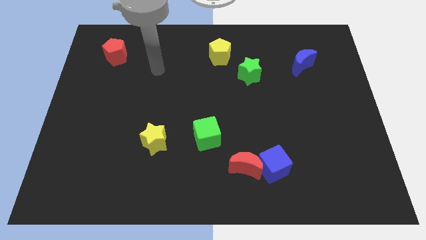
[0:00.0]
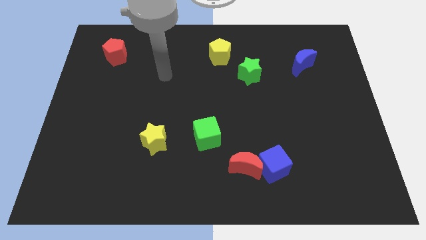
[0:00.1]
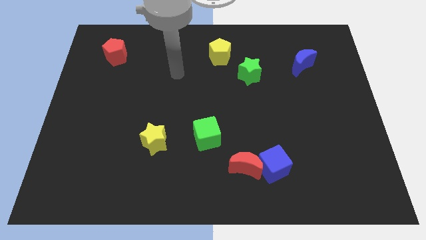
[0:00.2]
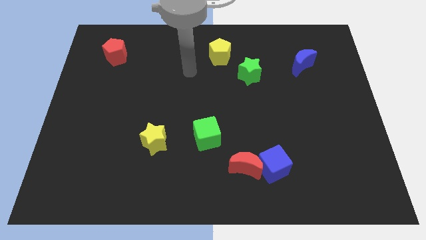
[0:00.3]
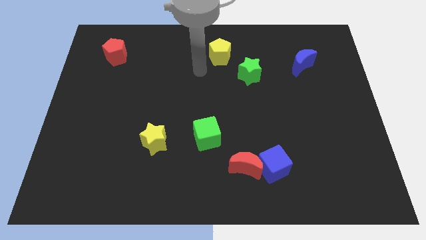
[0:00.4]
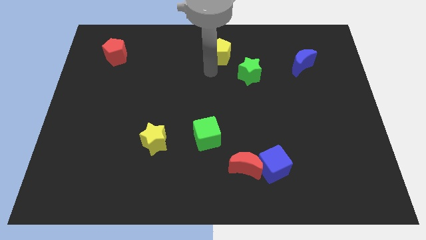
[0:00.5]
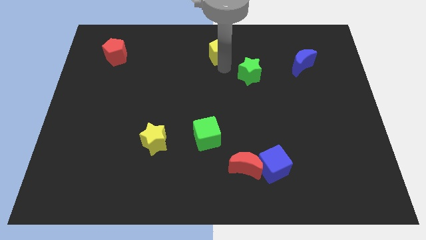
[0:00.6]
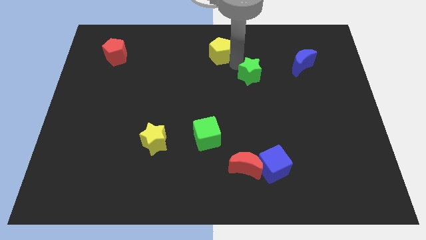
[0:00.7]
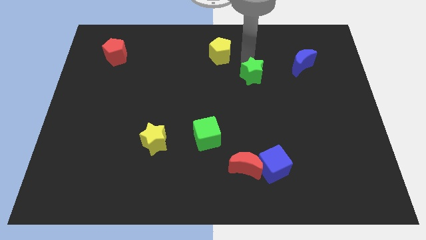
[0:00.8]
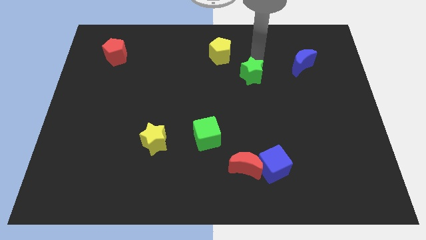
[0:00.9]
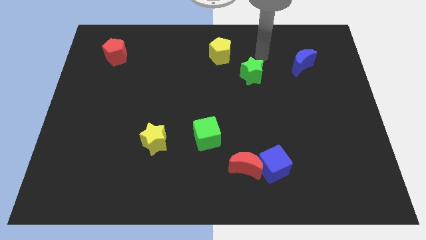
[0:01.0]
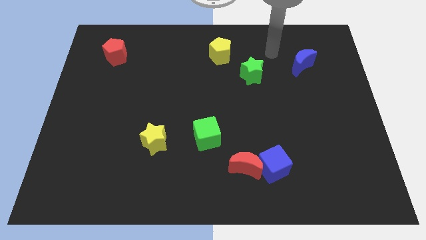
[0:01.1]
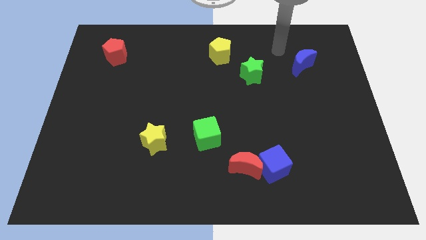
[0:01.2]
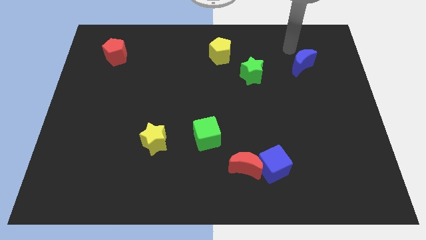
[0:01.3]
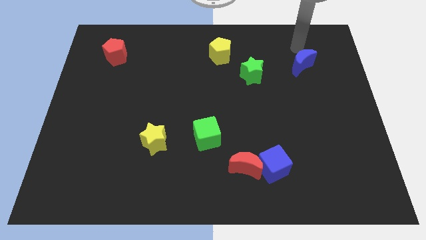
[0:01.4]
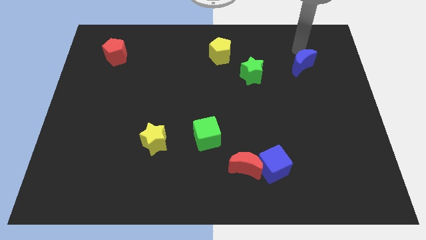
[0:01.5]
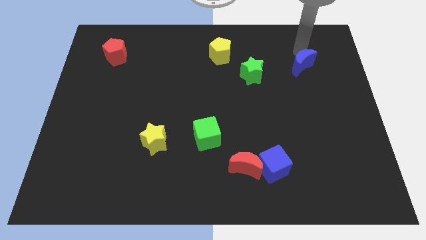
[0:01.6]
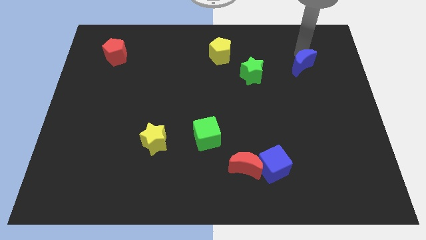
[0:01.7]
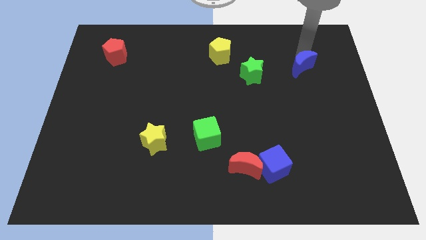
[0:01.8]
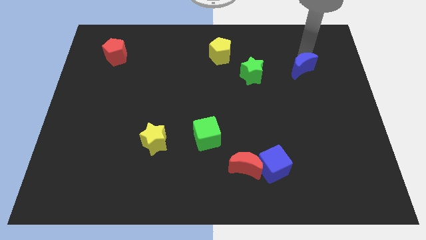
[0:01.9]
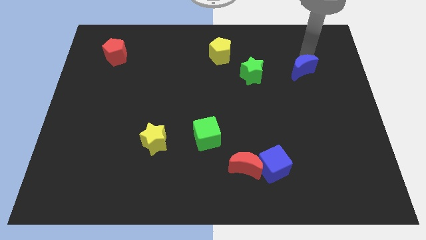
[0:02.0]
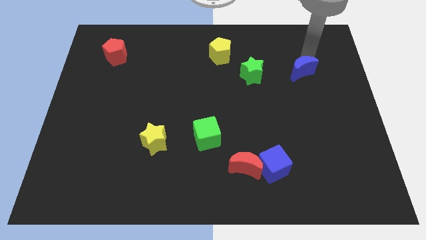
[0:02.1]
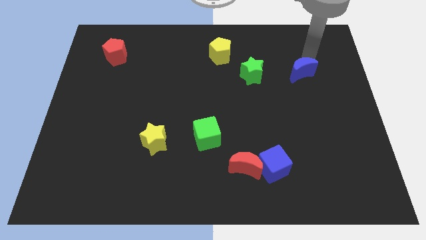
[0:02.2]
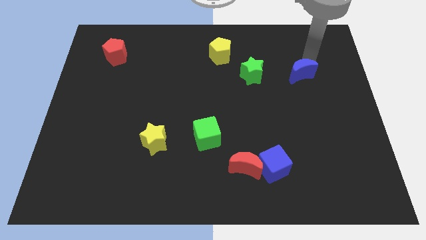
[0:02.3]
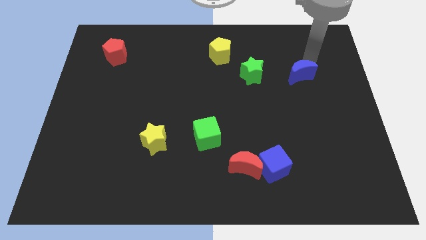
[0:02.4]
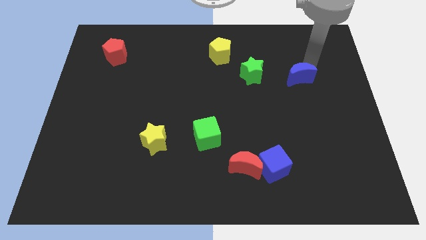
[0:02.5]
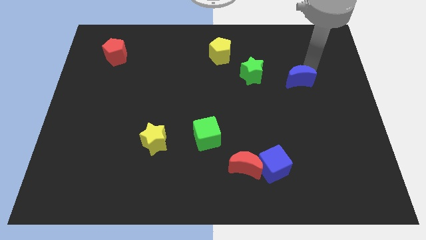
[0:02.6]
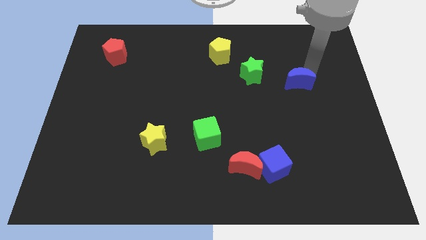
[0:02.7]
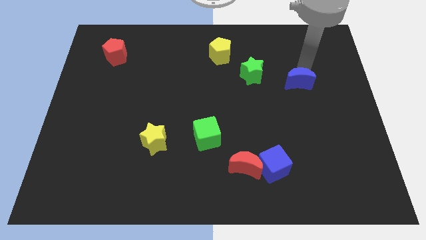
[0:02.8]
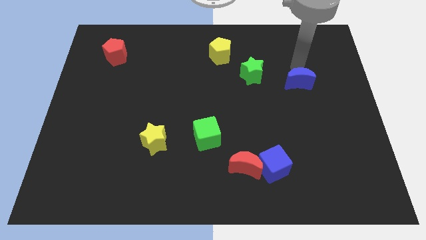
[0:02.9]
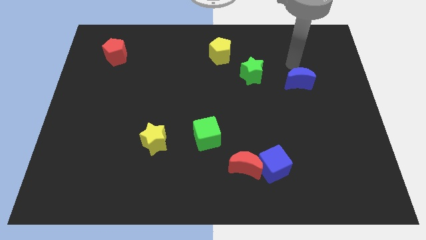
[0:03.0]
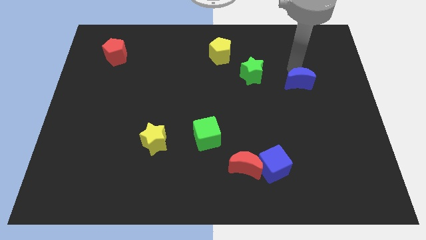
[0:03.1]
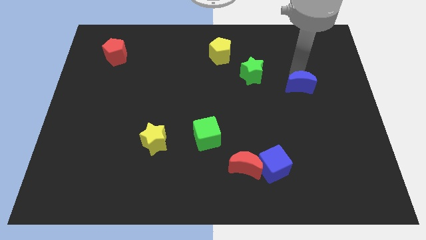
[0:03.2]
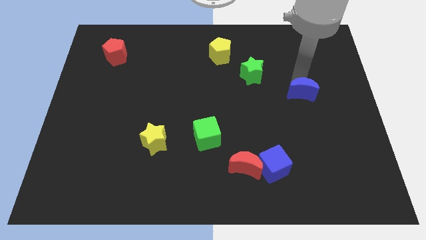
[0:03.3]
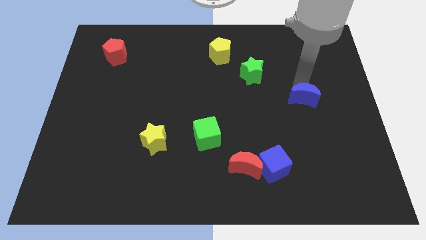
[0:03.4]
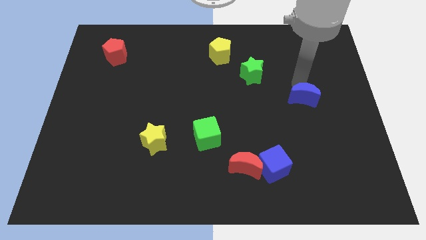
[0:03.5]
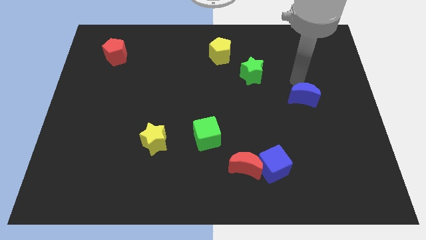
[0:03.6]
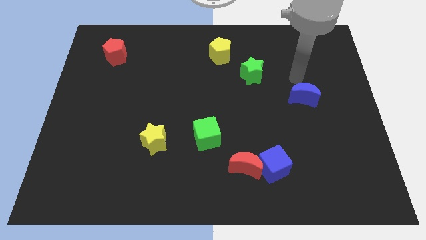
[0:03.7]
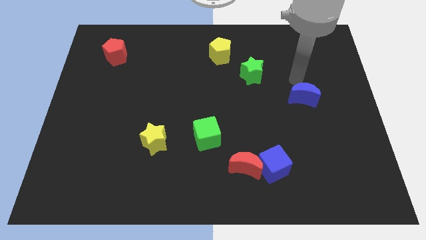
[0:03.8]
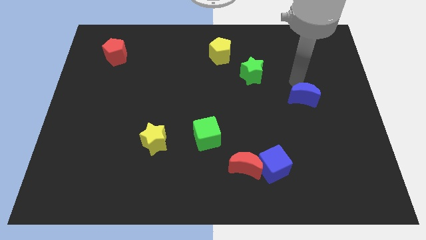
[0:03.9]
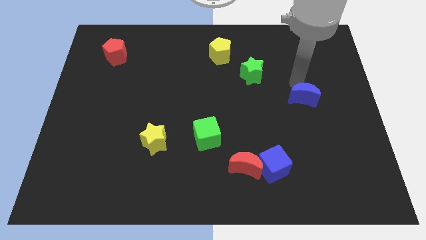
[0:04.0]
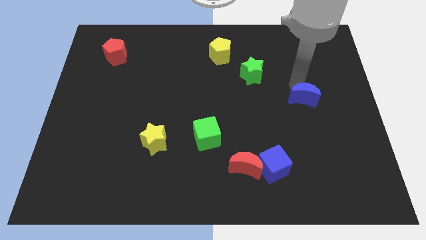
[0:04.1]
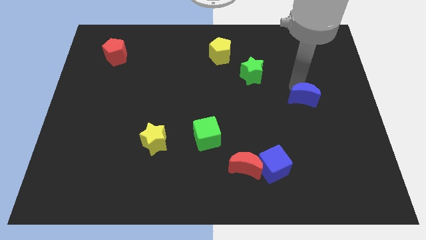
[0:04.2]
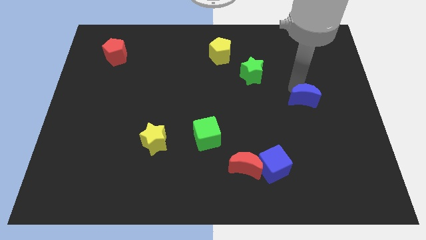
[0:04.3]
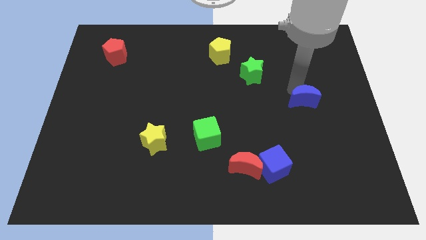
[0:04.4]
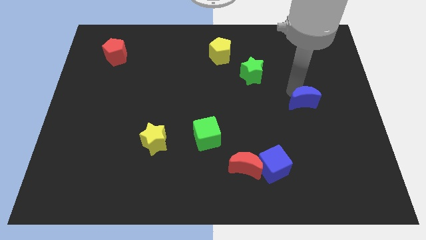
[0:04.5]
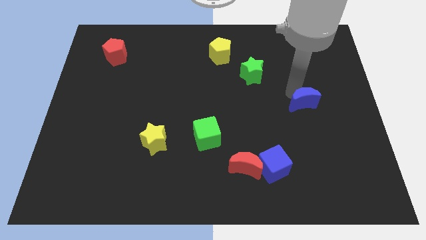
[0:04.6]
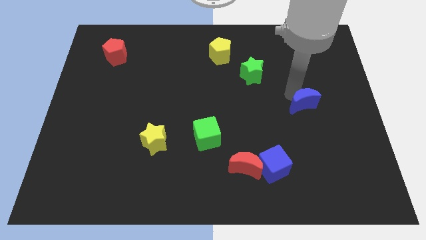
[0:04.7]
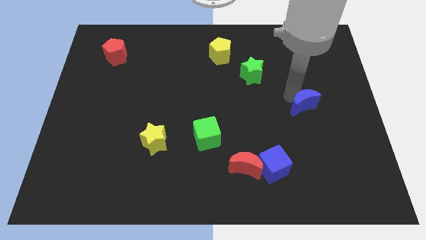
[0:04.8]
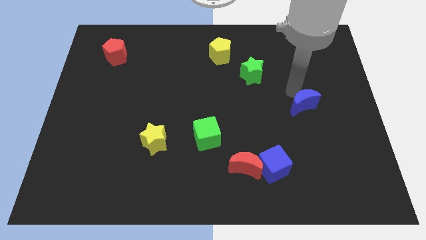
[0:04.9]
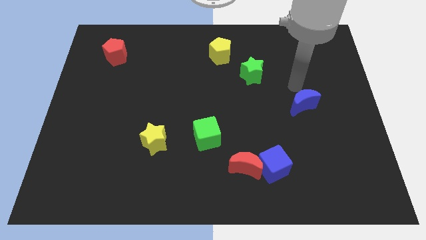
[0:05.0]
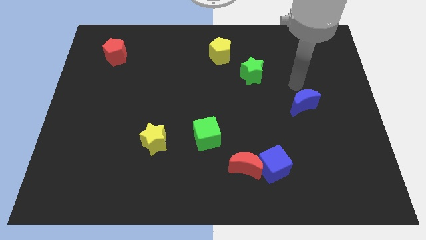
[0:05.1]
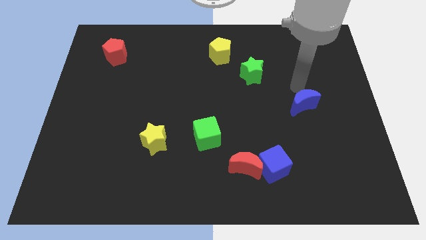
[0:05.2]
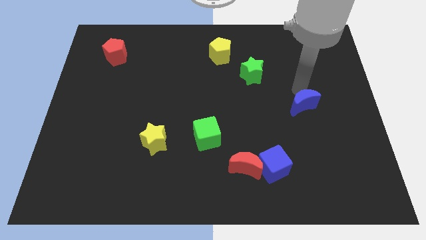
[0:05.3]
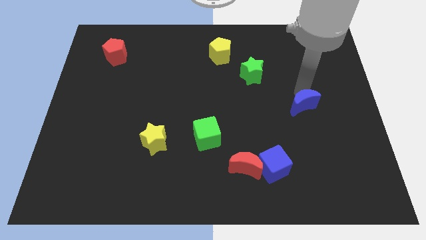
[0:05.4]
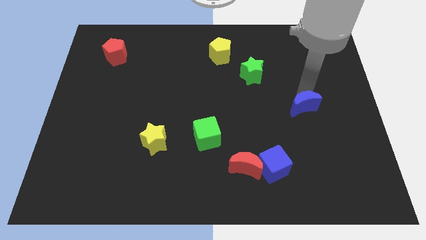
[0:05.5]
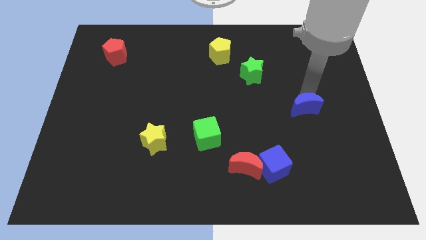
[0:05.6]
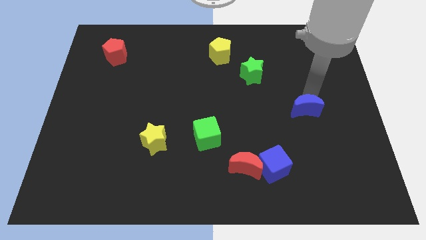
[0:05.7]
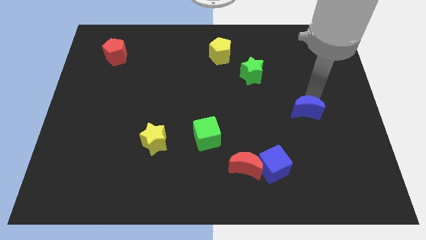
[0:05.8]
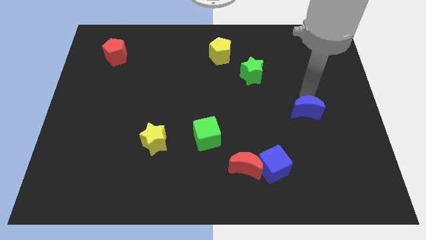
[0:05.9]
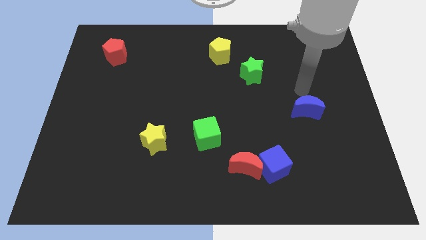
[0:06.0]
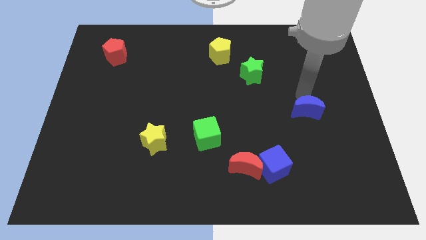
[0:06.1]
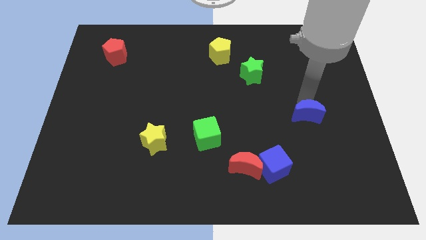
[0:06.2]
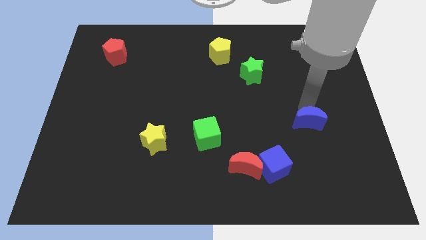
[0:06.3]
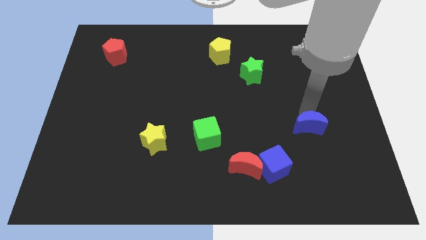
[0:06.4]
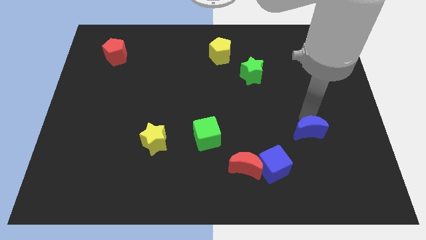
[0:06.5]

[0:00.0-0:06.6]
slide the blue moon downwards

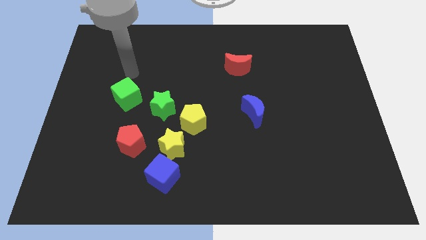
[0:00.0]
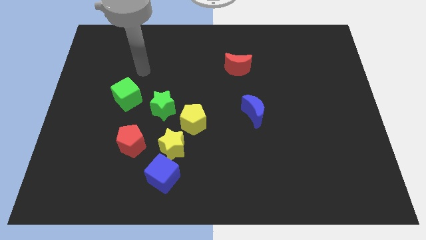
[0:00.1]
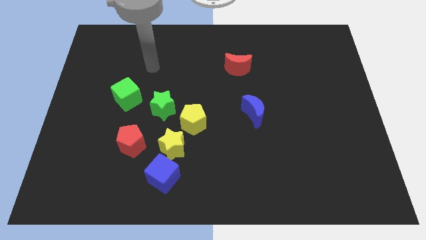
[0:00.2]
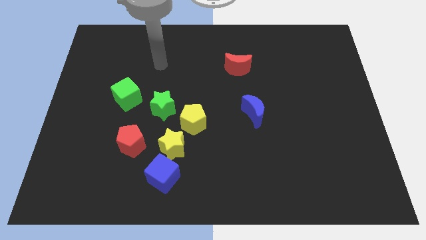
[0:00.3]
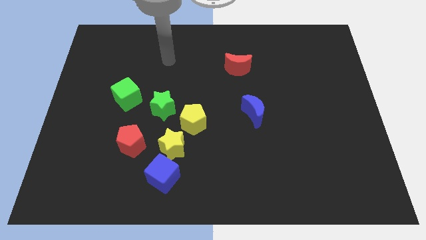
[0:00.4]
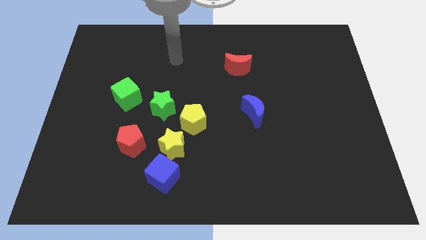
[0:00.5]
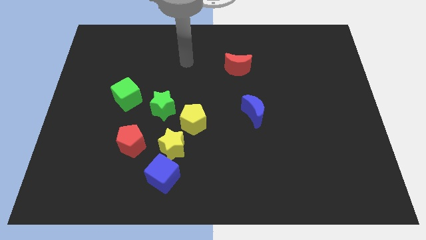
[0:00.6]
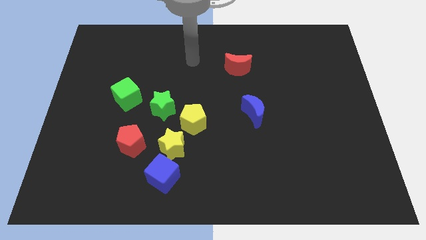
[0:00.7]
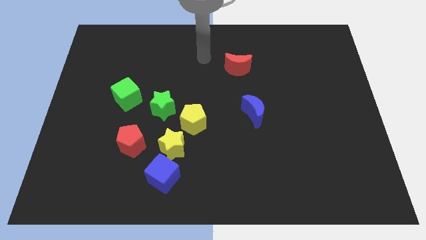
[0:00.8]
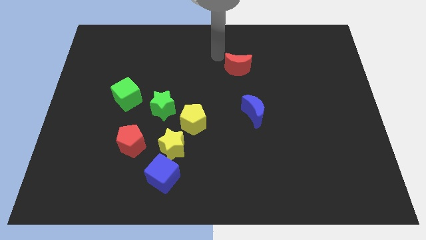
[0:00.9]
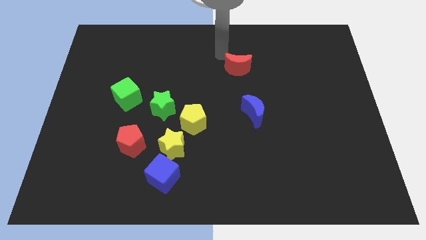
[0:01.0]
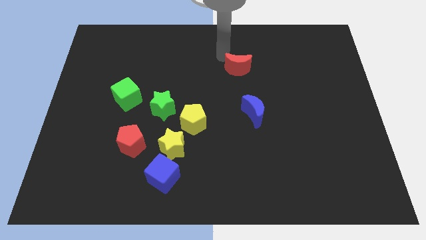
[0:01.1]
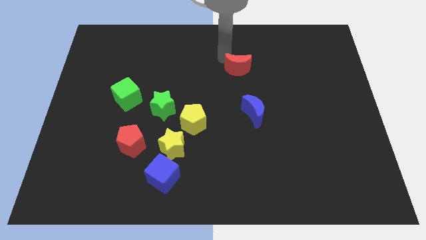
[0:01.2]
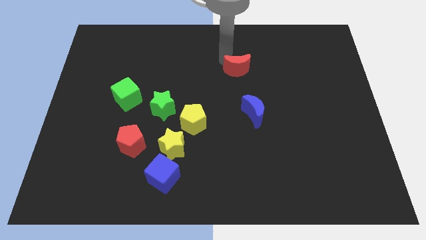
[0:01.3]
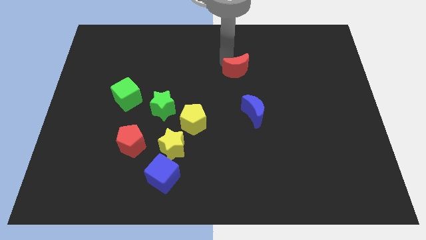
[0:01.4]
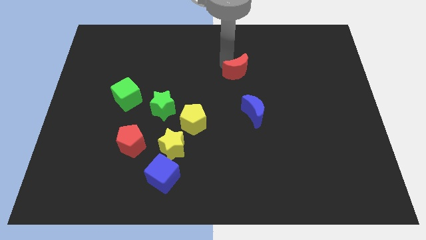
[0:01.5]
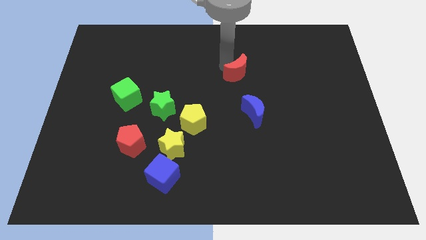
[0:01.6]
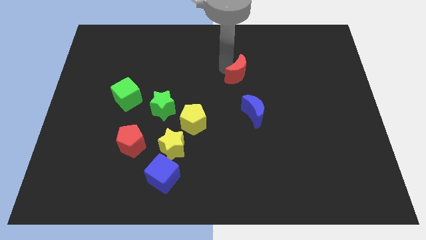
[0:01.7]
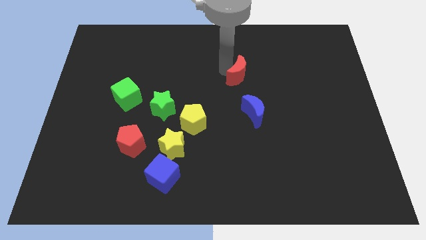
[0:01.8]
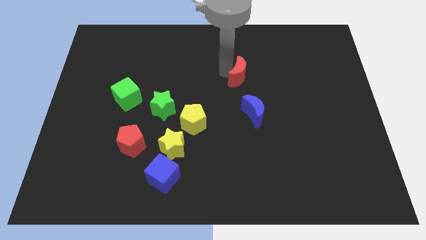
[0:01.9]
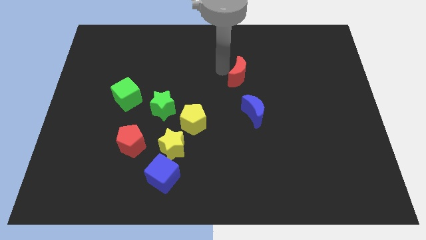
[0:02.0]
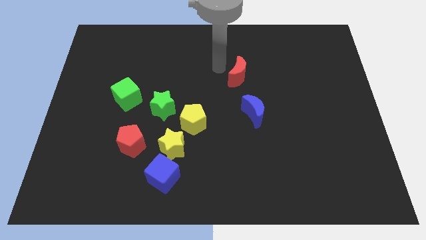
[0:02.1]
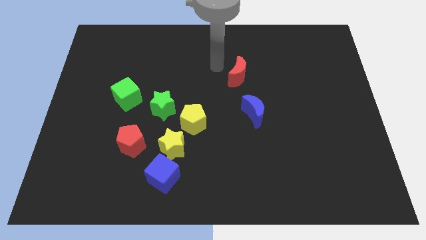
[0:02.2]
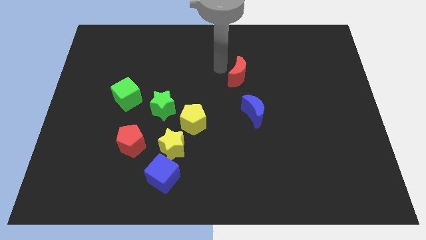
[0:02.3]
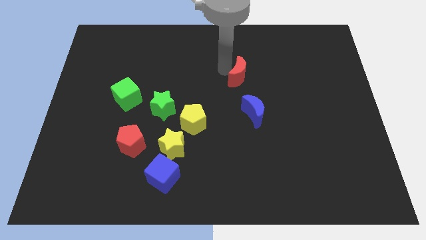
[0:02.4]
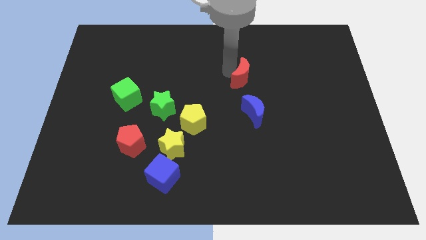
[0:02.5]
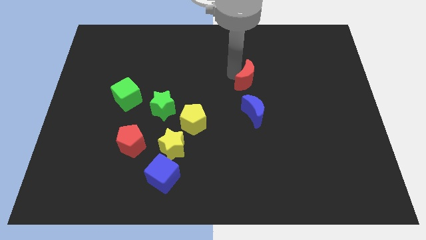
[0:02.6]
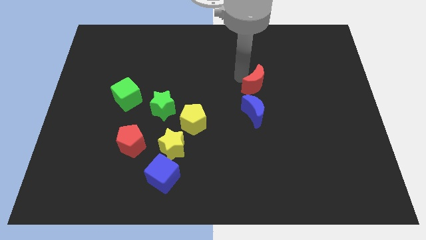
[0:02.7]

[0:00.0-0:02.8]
move the red moon slightly down and then right
